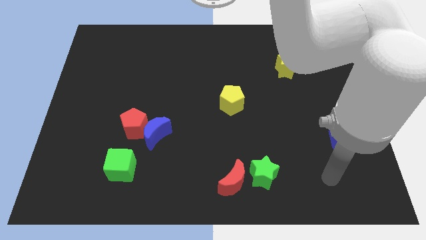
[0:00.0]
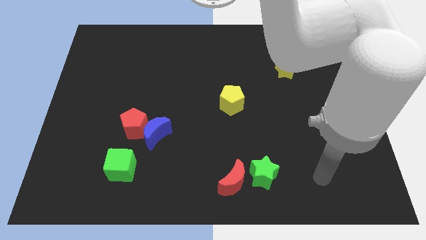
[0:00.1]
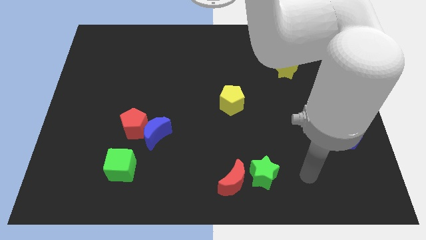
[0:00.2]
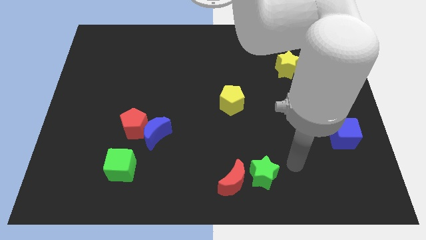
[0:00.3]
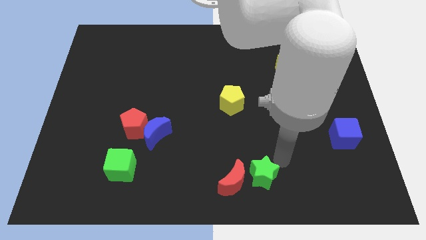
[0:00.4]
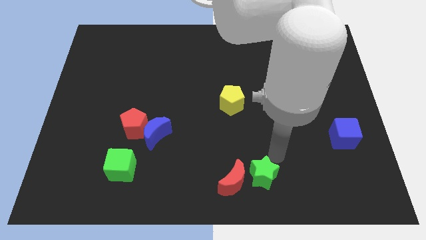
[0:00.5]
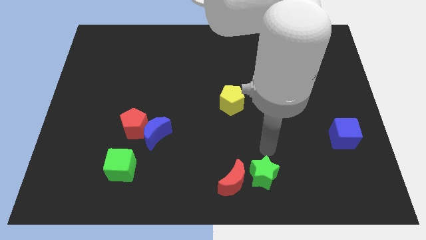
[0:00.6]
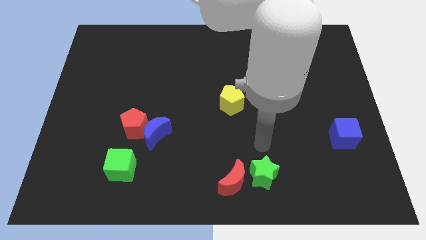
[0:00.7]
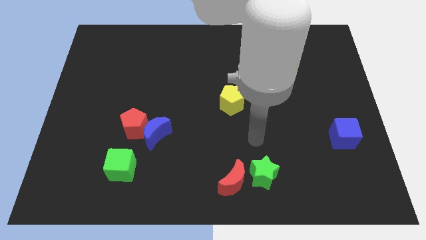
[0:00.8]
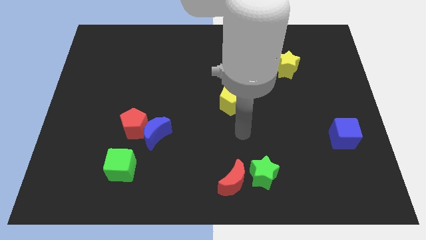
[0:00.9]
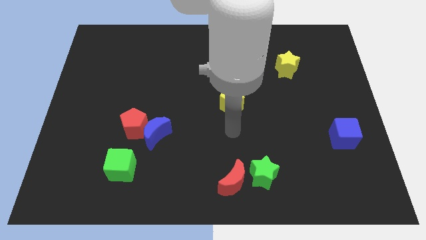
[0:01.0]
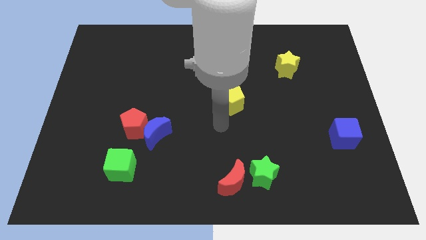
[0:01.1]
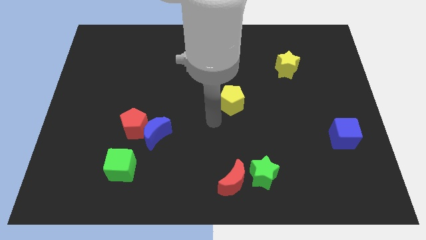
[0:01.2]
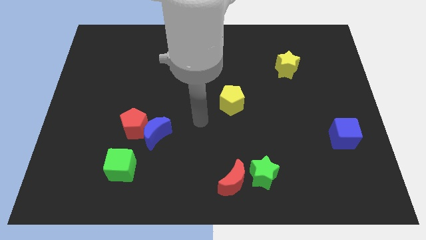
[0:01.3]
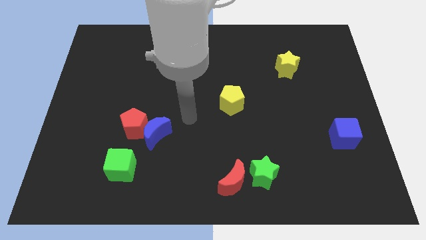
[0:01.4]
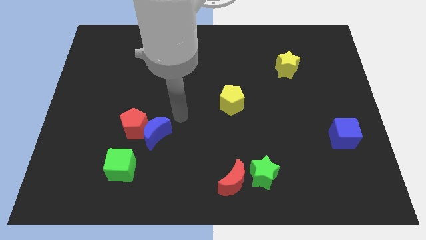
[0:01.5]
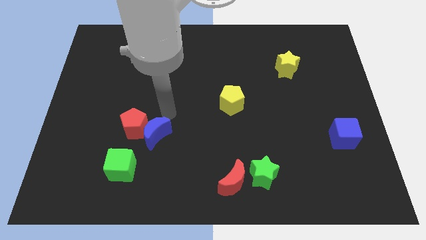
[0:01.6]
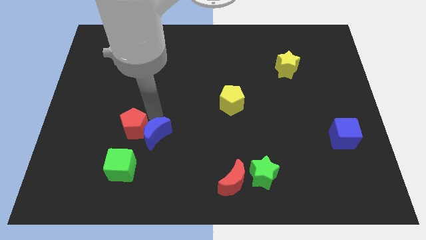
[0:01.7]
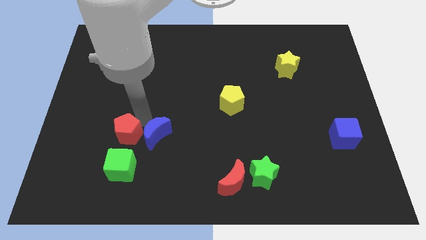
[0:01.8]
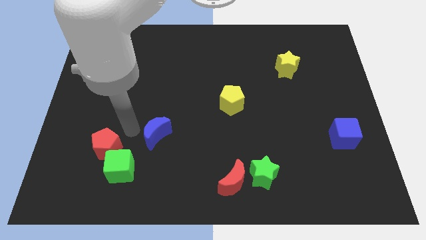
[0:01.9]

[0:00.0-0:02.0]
separate the blue moon from the red pentagon

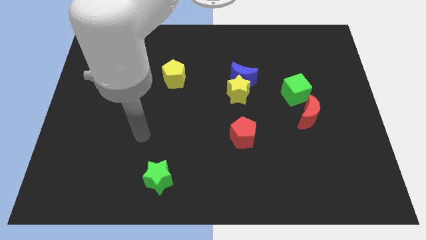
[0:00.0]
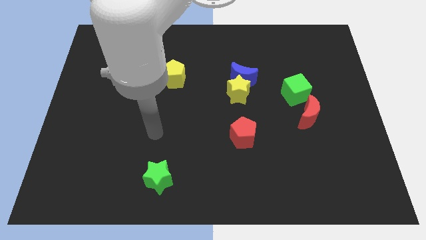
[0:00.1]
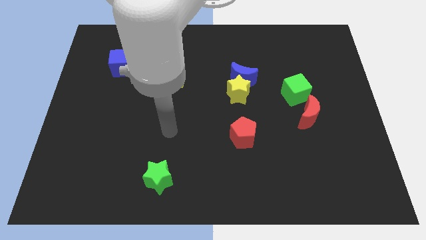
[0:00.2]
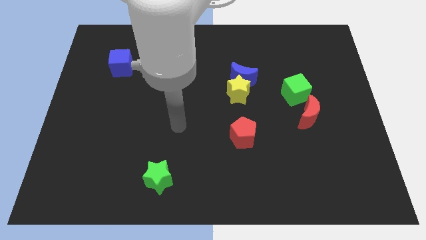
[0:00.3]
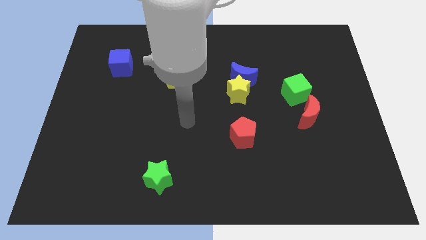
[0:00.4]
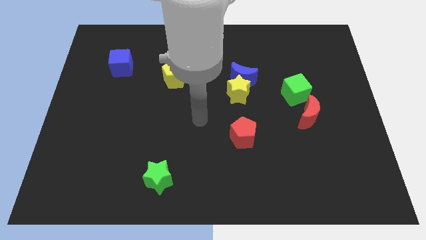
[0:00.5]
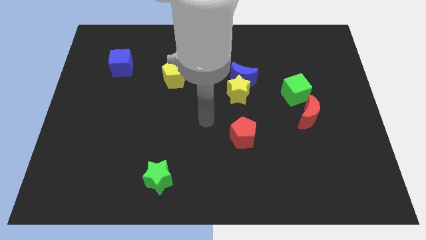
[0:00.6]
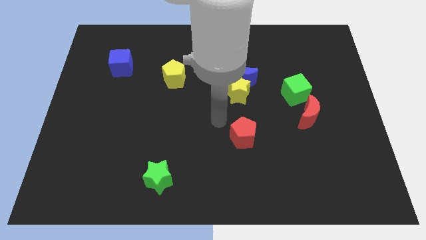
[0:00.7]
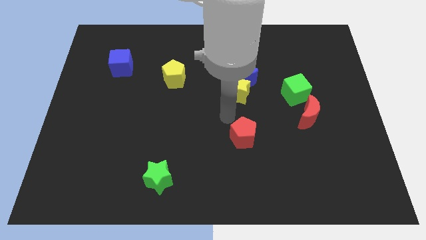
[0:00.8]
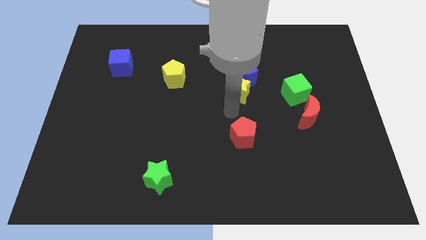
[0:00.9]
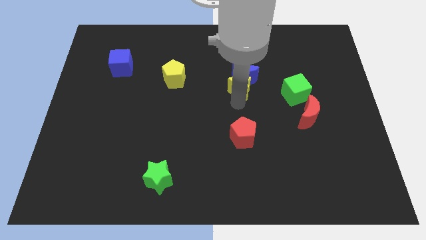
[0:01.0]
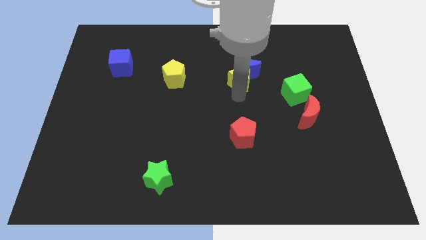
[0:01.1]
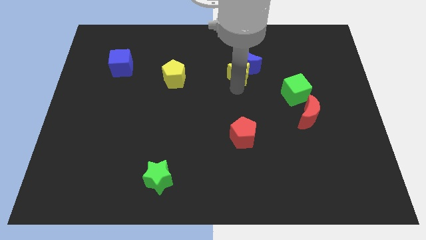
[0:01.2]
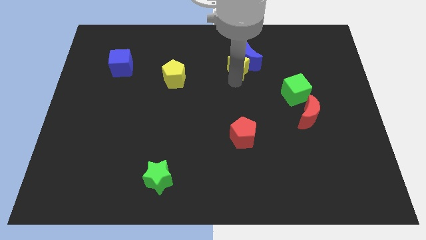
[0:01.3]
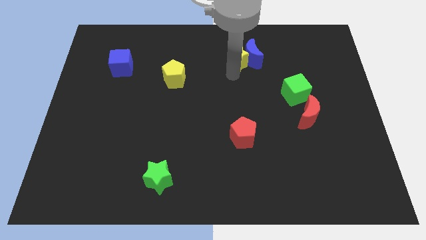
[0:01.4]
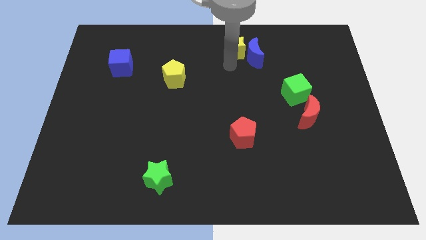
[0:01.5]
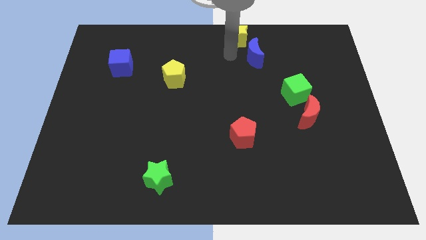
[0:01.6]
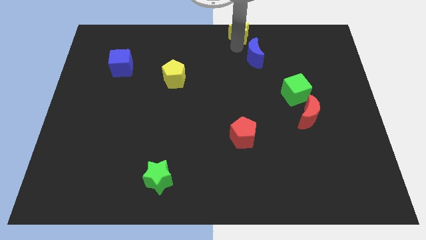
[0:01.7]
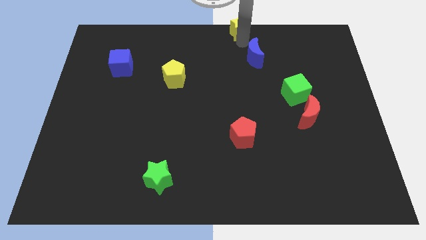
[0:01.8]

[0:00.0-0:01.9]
pull the blue moon apart from the yellow star

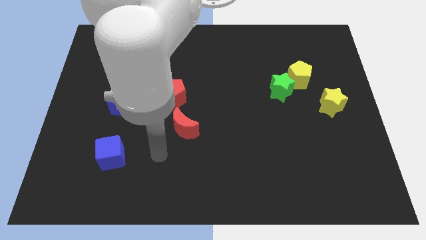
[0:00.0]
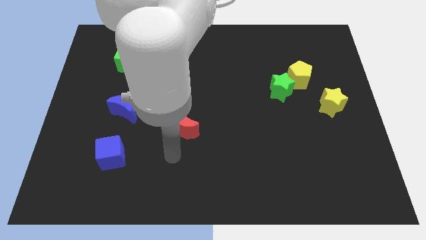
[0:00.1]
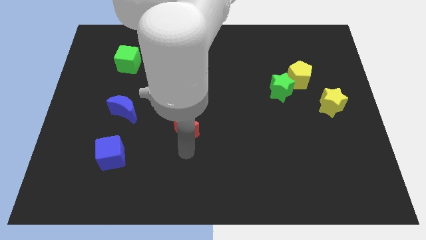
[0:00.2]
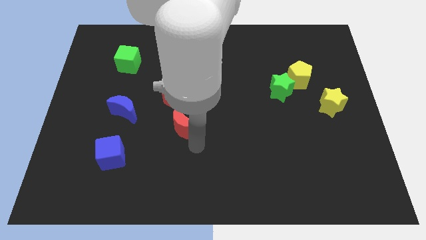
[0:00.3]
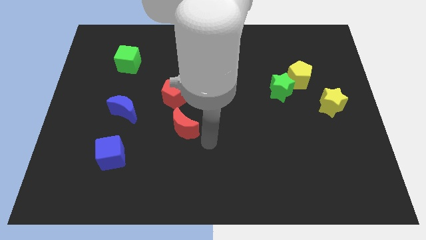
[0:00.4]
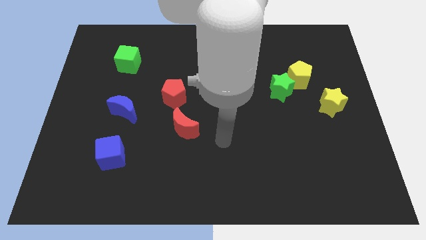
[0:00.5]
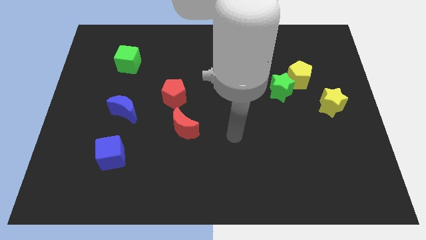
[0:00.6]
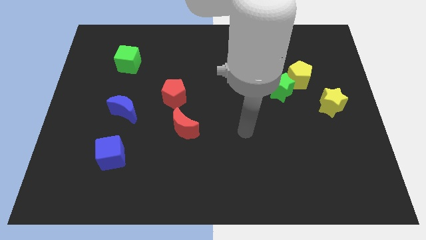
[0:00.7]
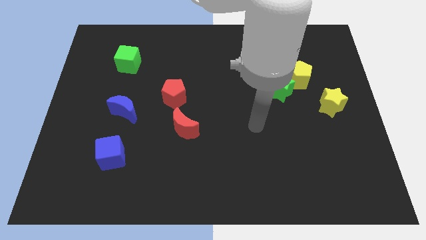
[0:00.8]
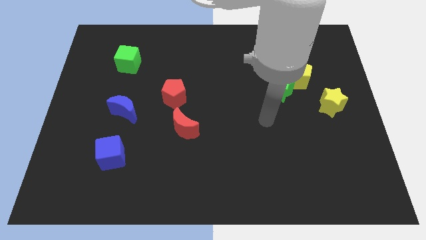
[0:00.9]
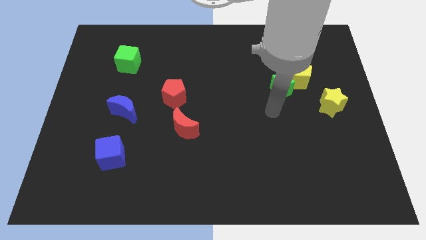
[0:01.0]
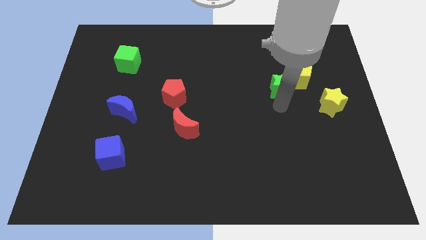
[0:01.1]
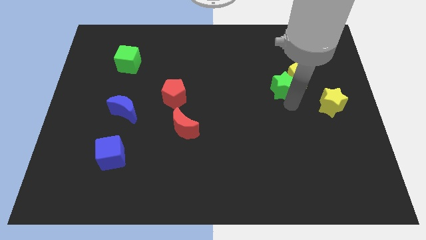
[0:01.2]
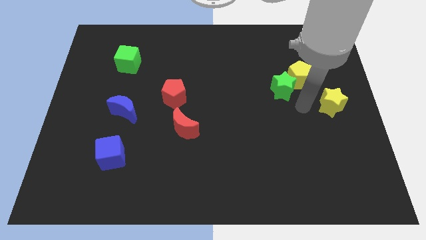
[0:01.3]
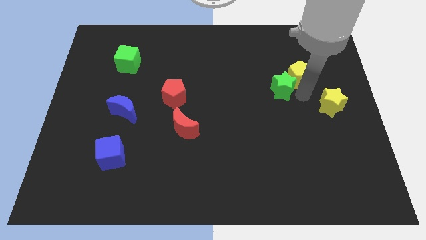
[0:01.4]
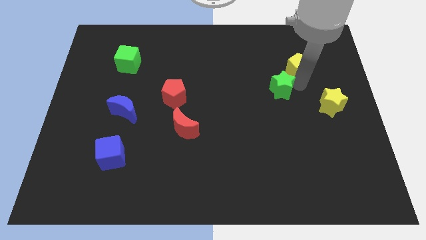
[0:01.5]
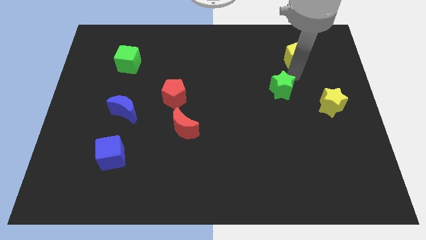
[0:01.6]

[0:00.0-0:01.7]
separate the green star from the yellow pentagon

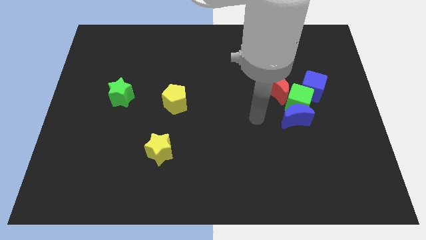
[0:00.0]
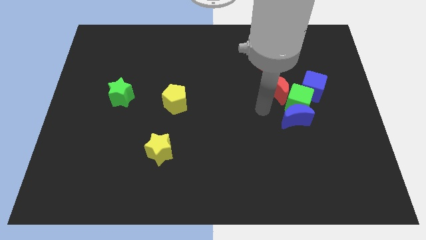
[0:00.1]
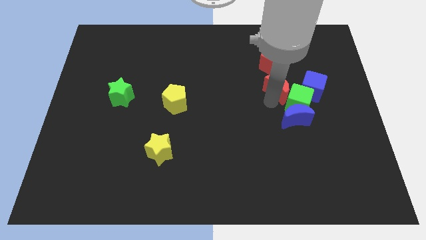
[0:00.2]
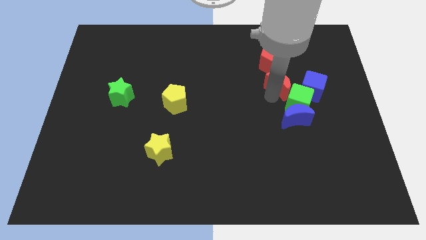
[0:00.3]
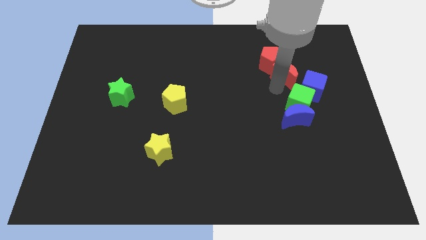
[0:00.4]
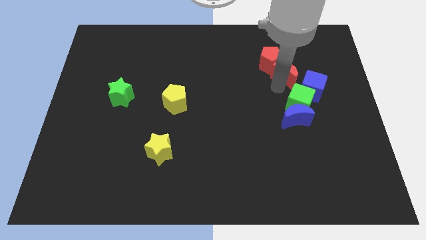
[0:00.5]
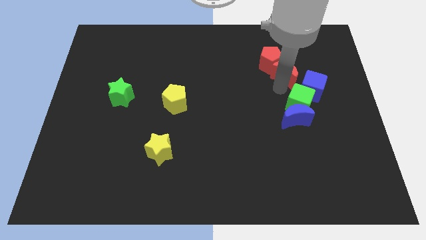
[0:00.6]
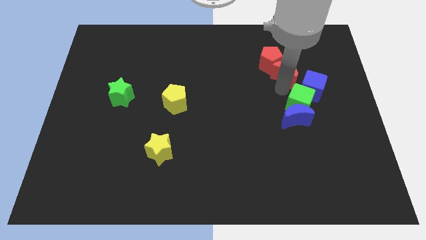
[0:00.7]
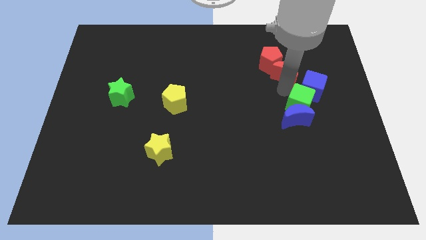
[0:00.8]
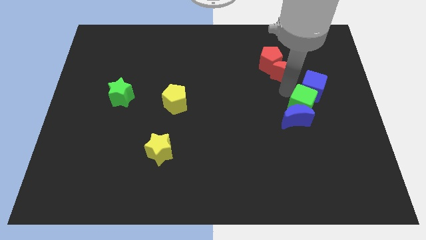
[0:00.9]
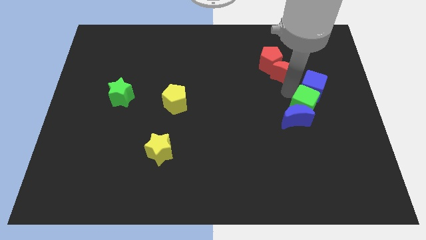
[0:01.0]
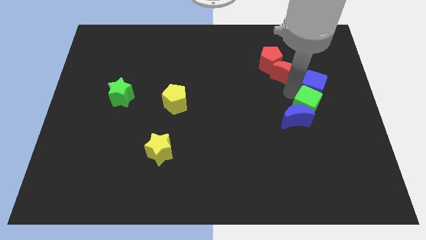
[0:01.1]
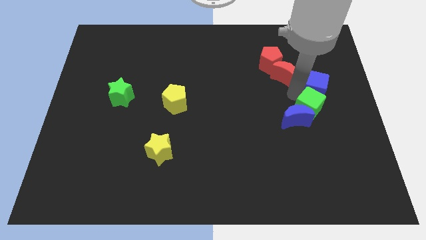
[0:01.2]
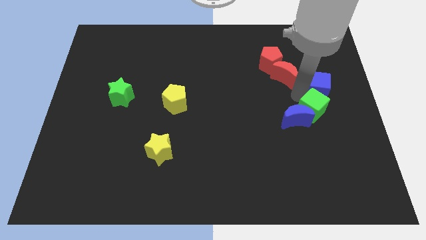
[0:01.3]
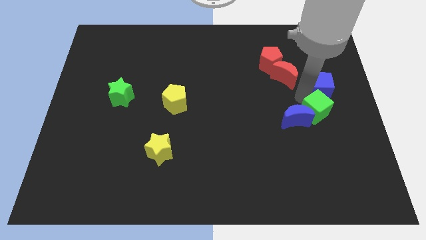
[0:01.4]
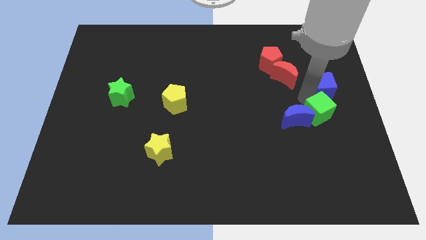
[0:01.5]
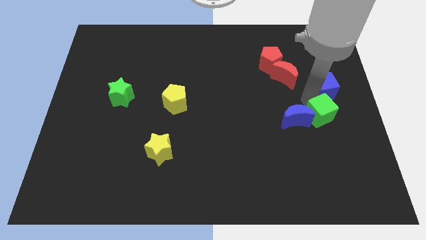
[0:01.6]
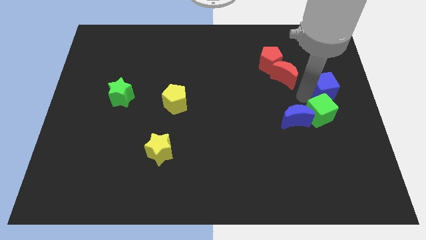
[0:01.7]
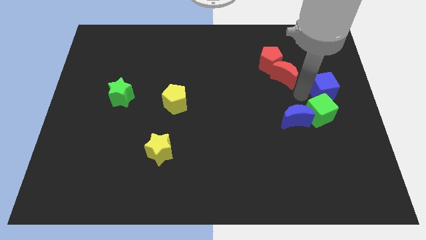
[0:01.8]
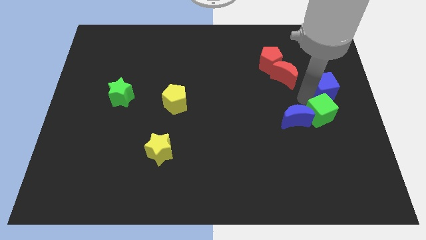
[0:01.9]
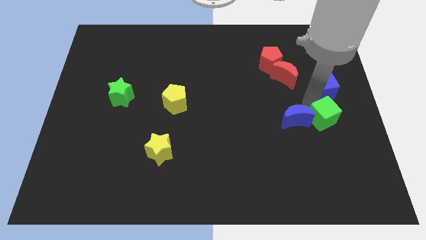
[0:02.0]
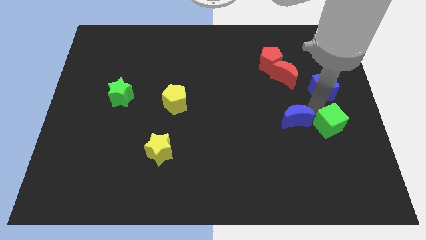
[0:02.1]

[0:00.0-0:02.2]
move the green cube away from the group of blocks

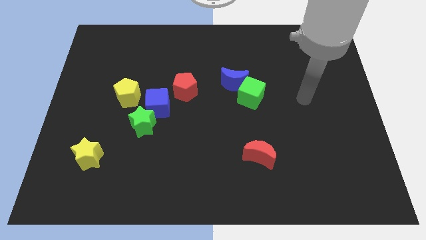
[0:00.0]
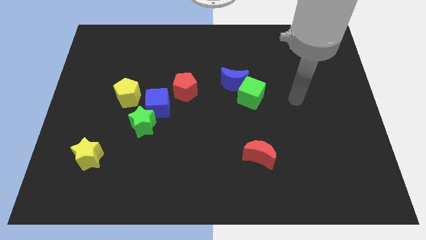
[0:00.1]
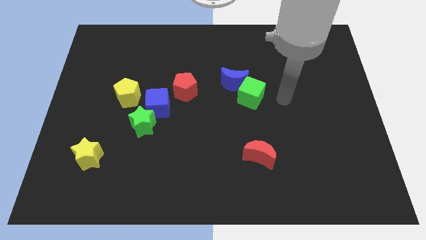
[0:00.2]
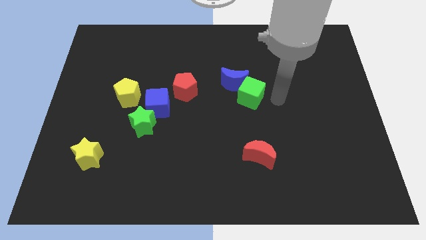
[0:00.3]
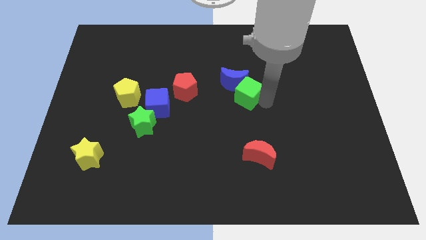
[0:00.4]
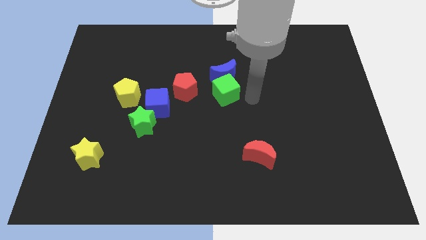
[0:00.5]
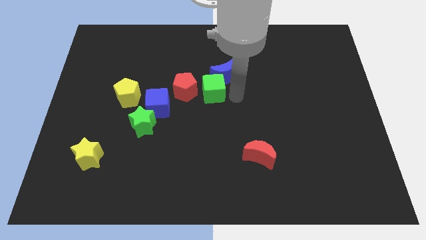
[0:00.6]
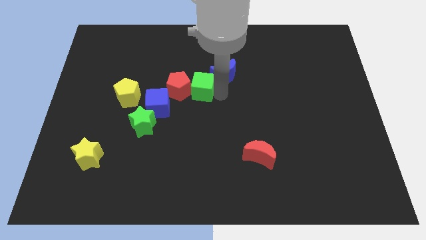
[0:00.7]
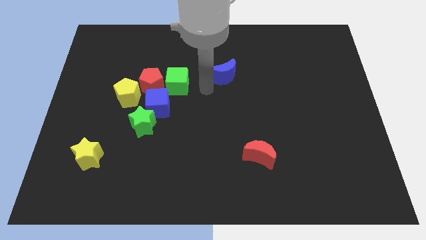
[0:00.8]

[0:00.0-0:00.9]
separate the blue moon from the green cube

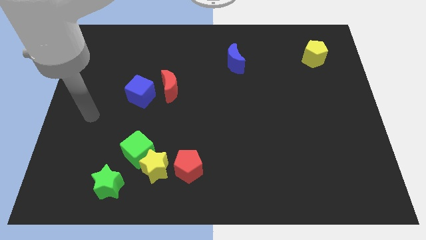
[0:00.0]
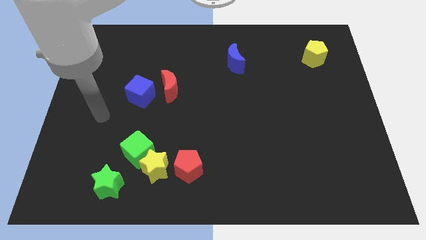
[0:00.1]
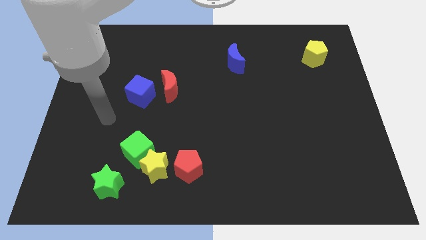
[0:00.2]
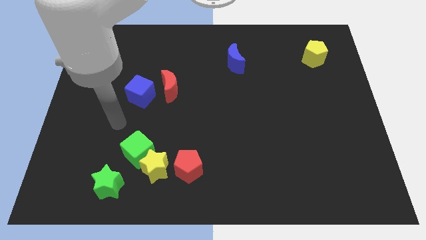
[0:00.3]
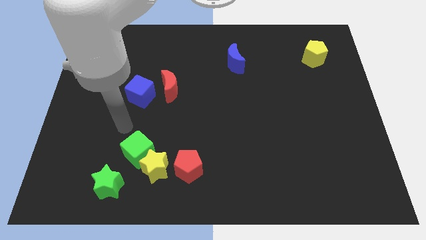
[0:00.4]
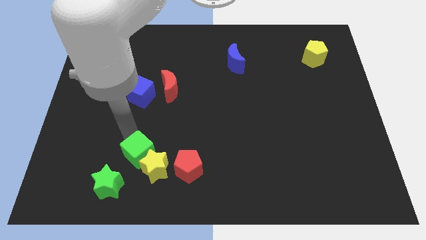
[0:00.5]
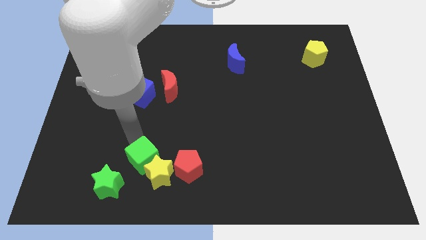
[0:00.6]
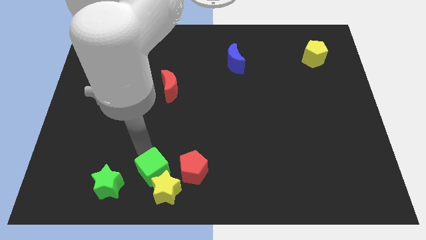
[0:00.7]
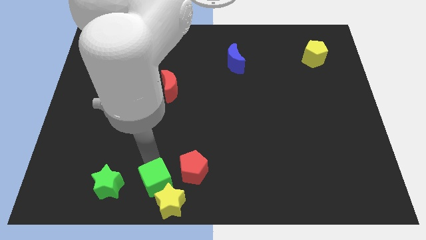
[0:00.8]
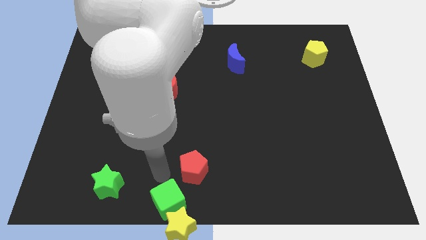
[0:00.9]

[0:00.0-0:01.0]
move the red pentagon away from the yellow star
